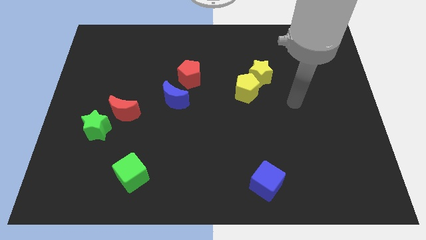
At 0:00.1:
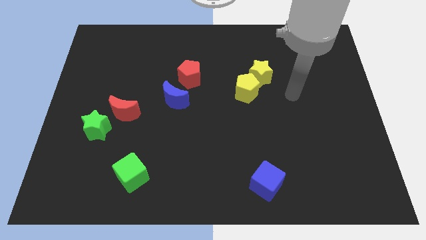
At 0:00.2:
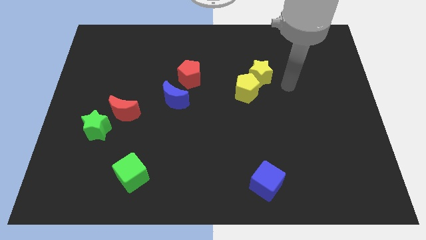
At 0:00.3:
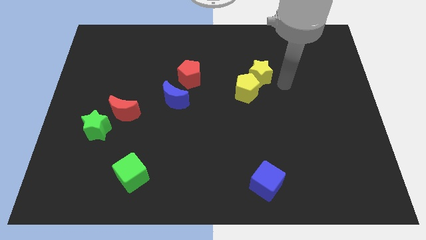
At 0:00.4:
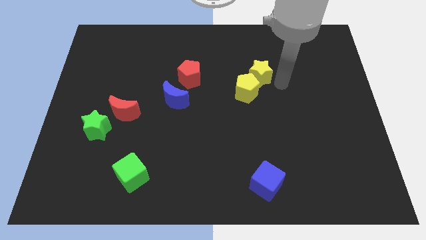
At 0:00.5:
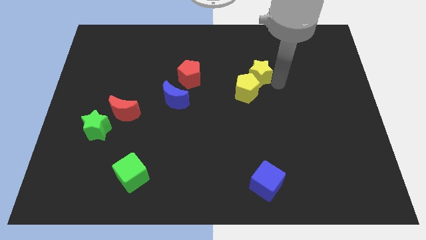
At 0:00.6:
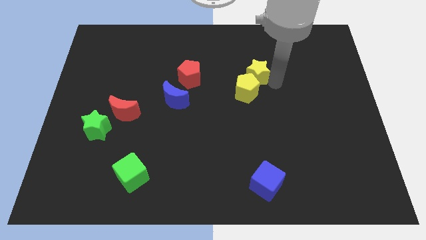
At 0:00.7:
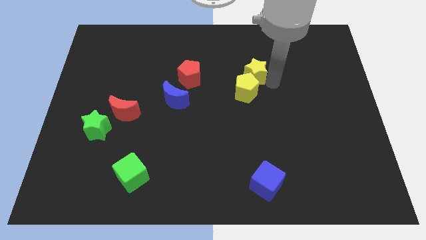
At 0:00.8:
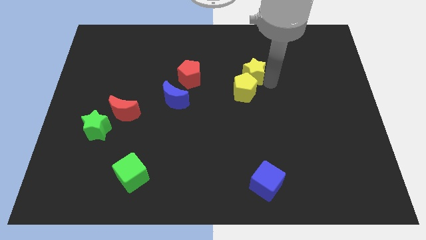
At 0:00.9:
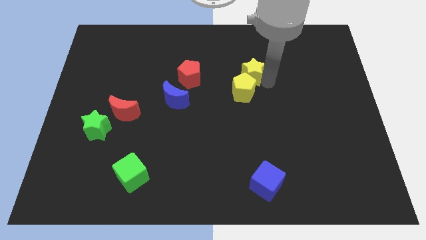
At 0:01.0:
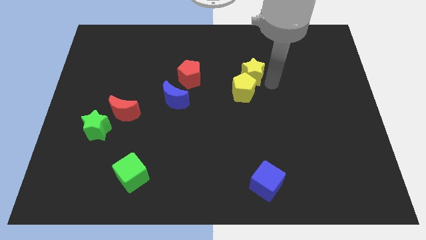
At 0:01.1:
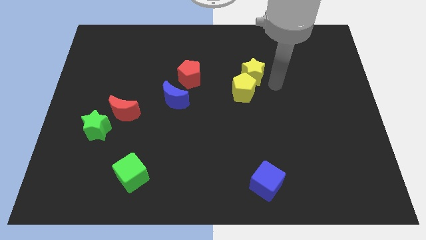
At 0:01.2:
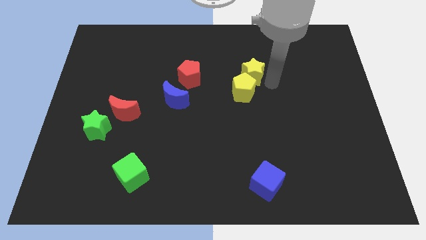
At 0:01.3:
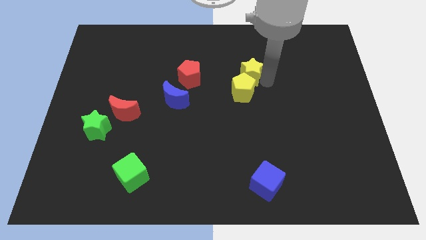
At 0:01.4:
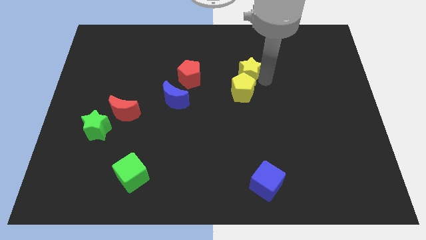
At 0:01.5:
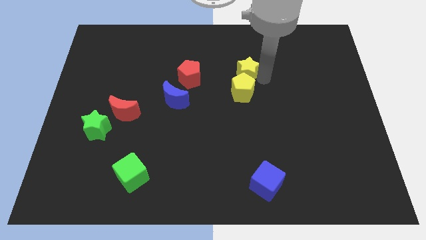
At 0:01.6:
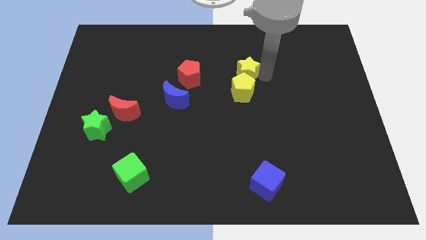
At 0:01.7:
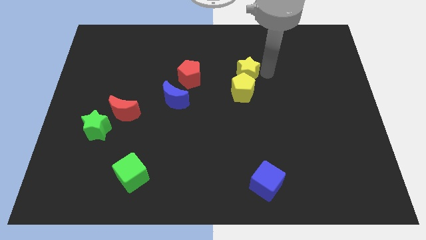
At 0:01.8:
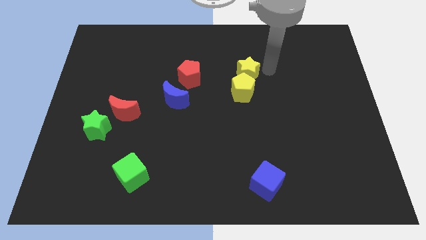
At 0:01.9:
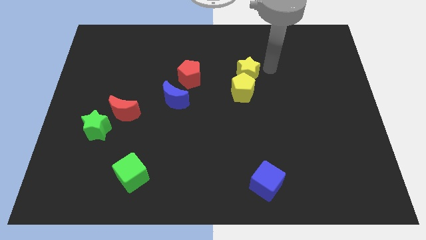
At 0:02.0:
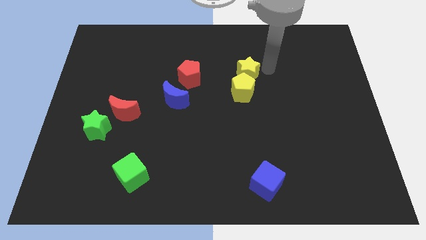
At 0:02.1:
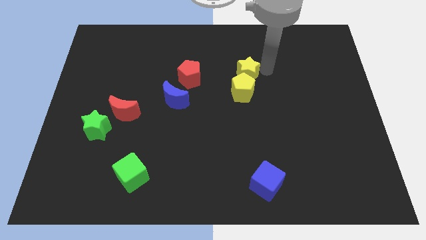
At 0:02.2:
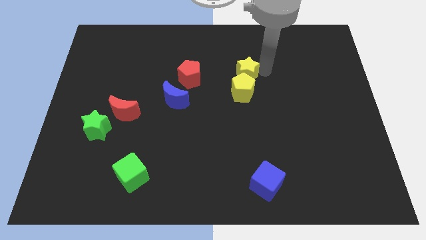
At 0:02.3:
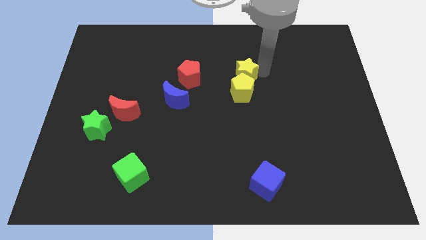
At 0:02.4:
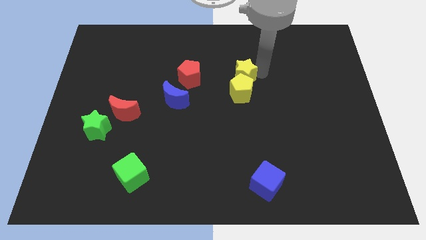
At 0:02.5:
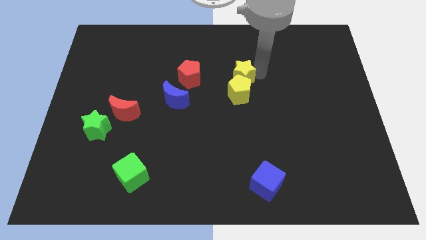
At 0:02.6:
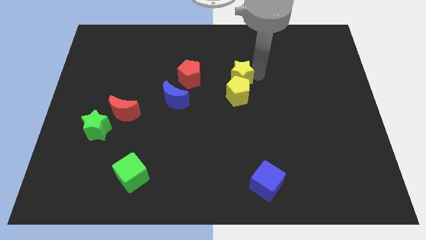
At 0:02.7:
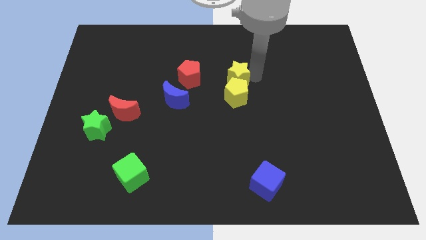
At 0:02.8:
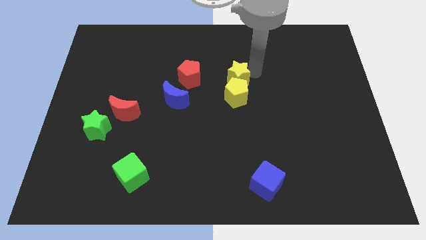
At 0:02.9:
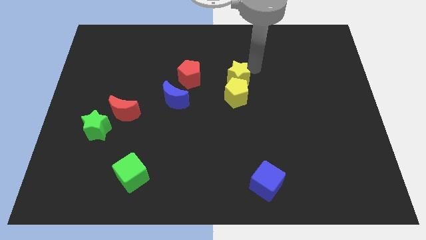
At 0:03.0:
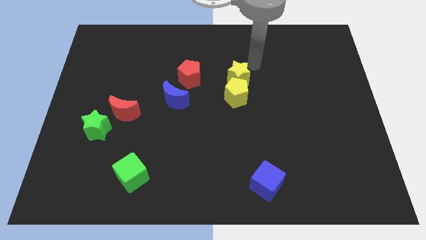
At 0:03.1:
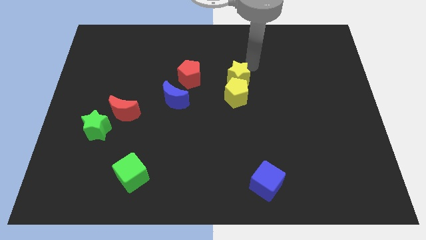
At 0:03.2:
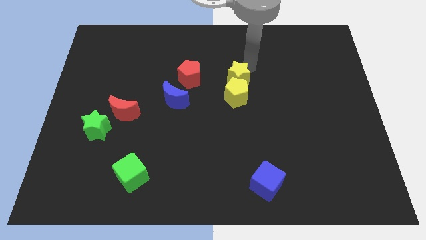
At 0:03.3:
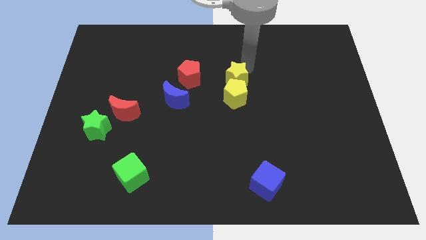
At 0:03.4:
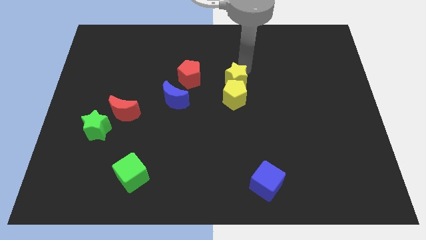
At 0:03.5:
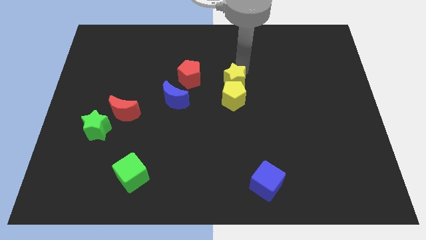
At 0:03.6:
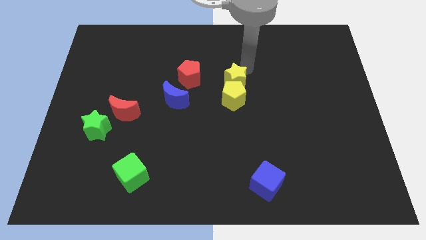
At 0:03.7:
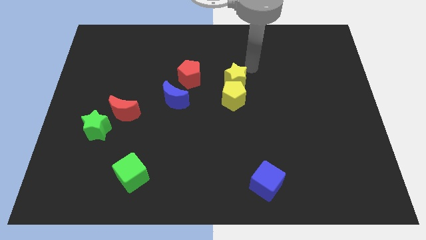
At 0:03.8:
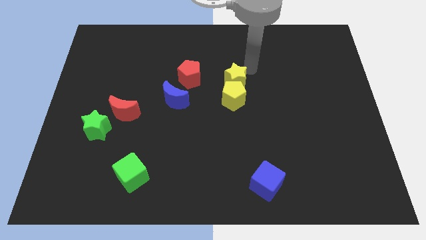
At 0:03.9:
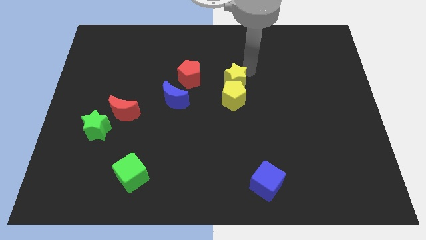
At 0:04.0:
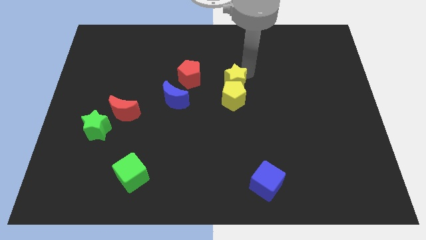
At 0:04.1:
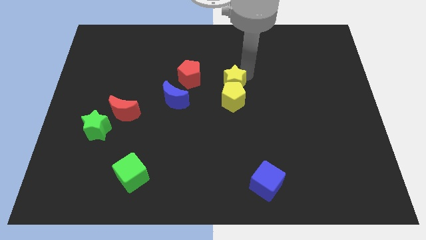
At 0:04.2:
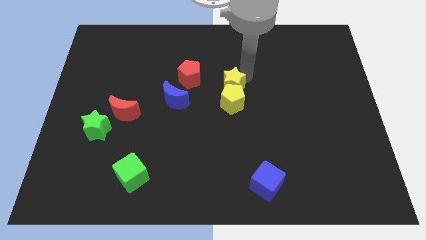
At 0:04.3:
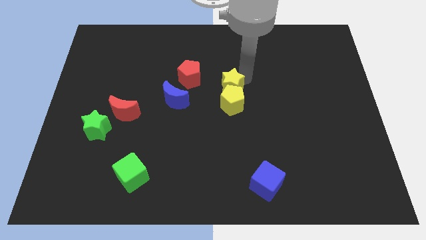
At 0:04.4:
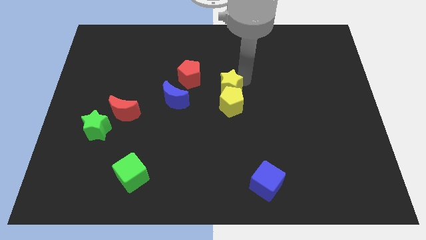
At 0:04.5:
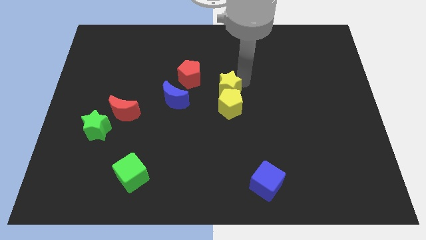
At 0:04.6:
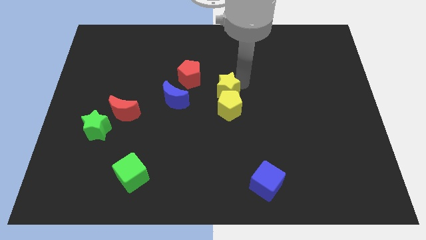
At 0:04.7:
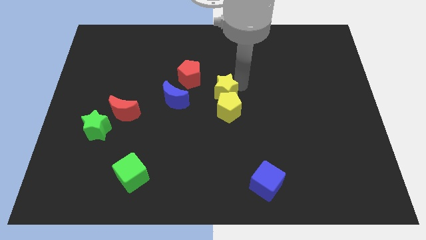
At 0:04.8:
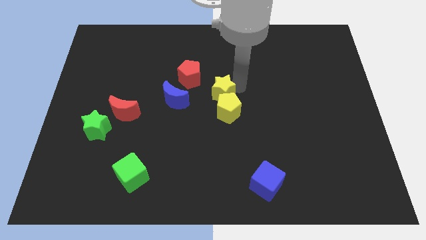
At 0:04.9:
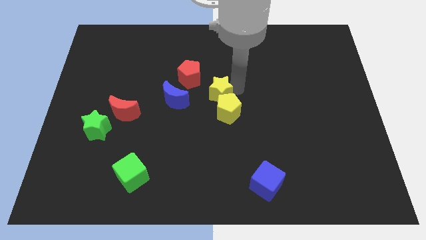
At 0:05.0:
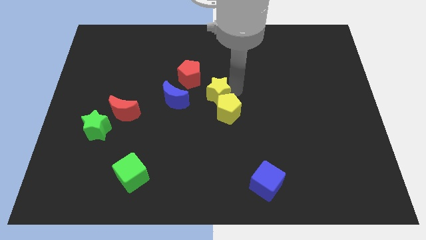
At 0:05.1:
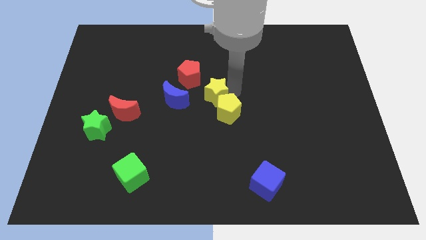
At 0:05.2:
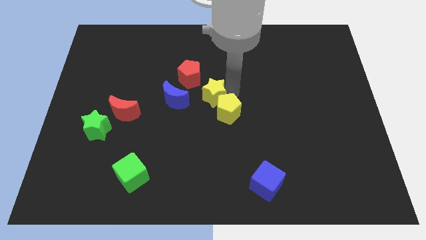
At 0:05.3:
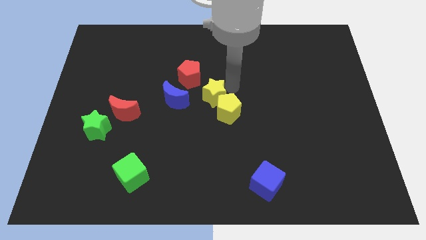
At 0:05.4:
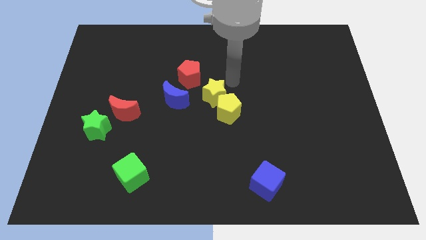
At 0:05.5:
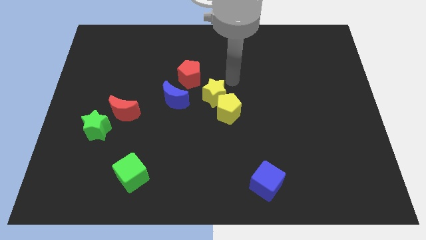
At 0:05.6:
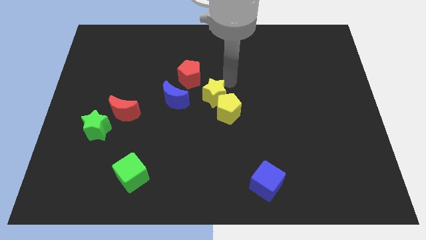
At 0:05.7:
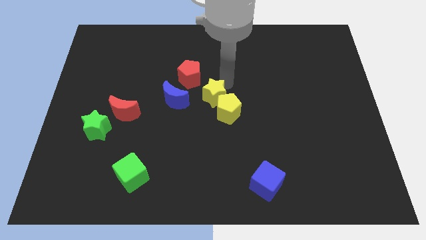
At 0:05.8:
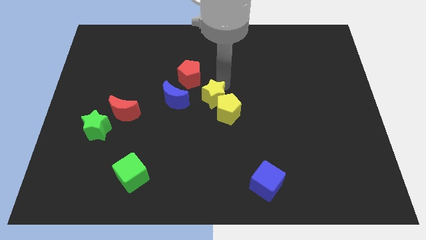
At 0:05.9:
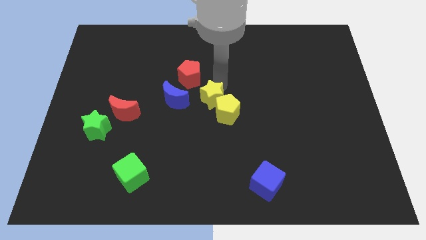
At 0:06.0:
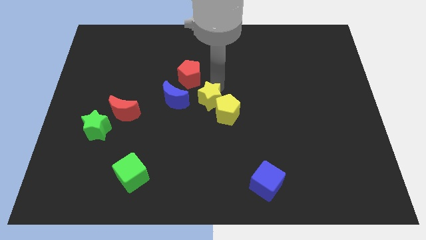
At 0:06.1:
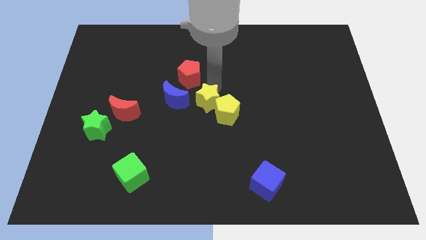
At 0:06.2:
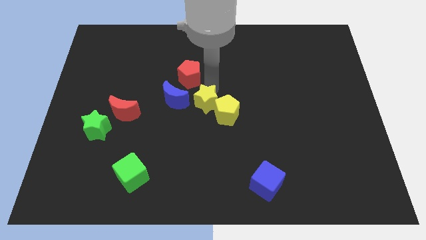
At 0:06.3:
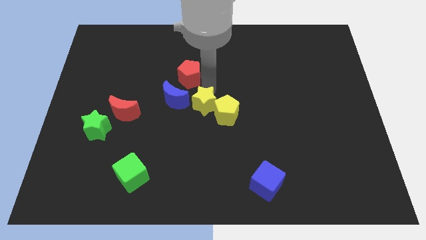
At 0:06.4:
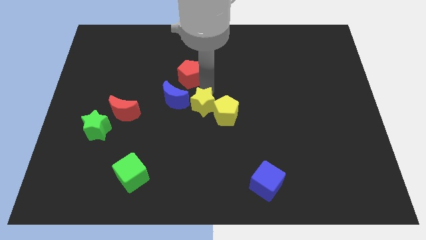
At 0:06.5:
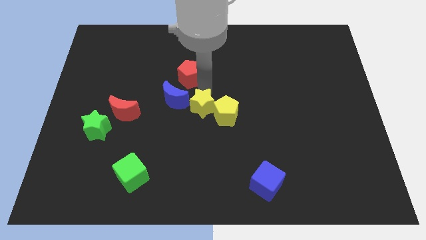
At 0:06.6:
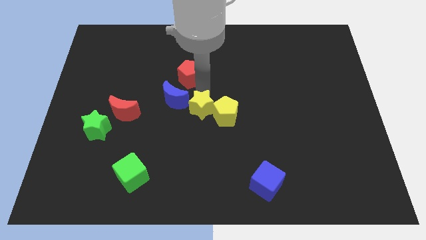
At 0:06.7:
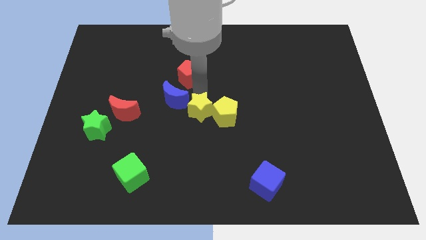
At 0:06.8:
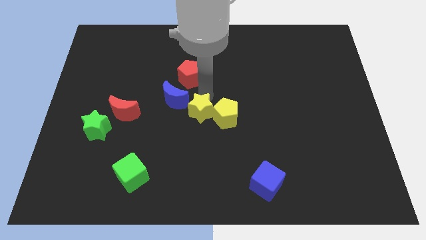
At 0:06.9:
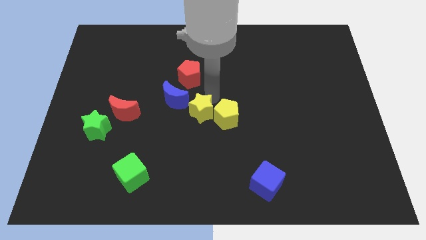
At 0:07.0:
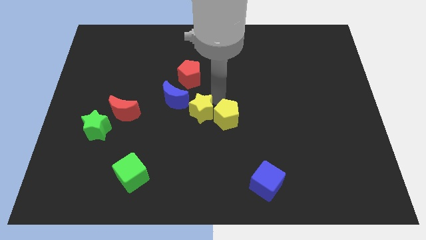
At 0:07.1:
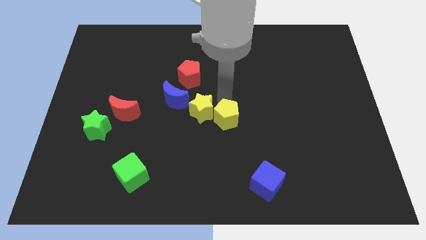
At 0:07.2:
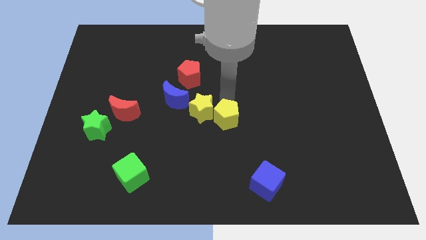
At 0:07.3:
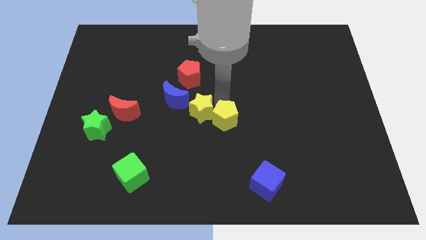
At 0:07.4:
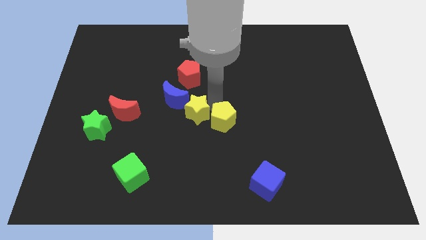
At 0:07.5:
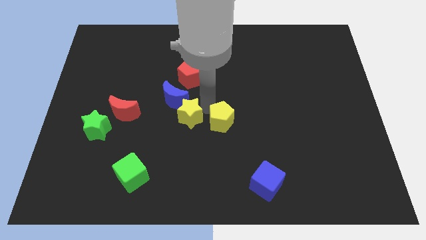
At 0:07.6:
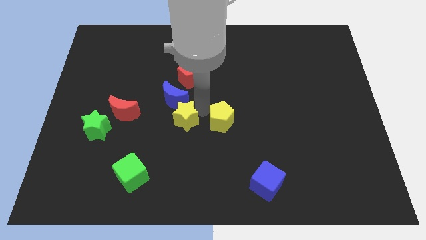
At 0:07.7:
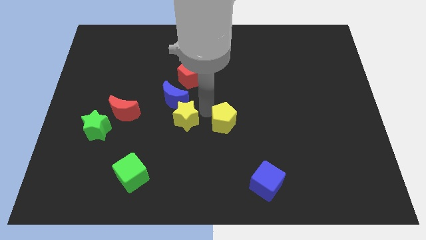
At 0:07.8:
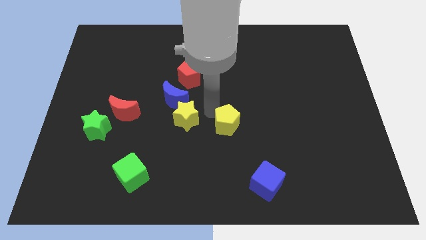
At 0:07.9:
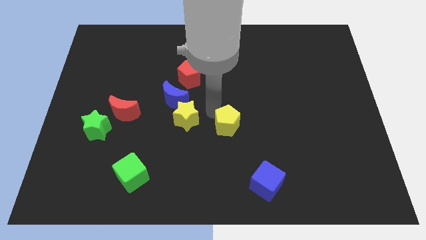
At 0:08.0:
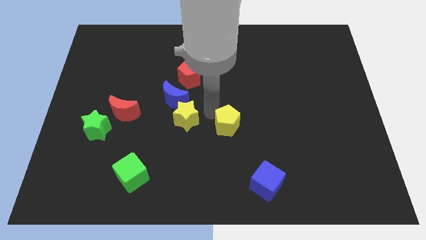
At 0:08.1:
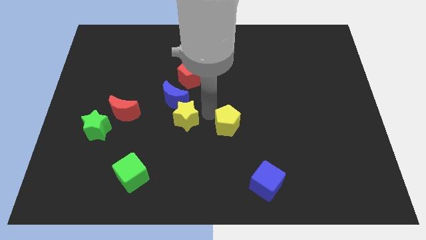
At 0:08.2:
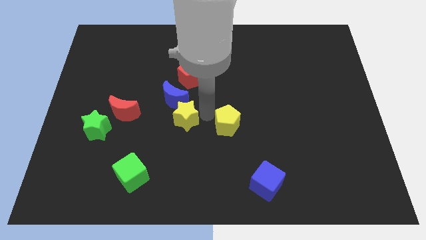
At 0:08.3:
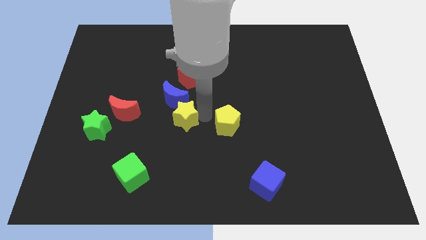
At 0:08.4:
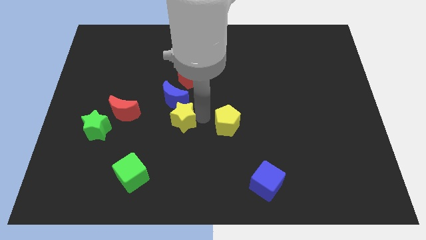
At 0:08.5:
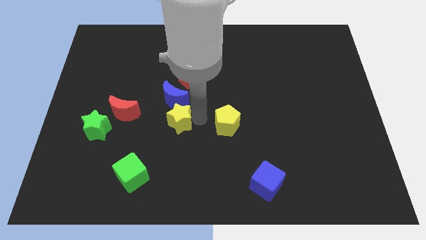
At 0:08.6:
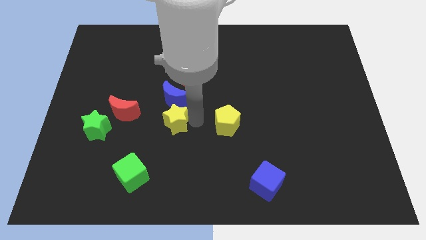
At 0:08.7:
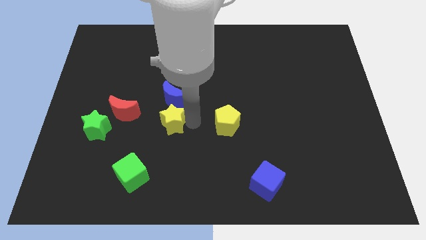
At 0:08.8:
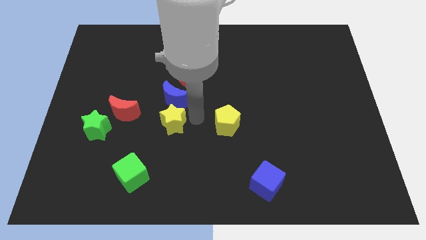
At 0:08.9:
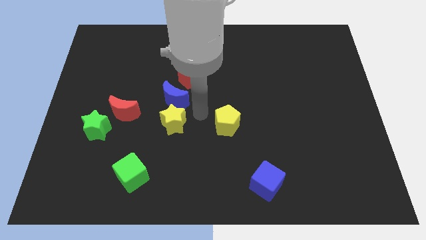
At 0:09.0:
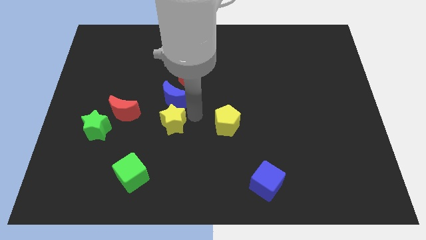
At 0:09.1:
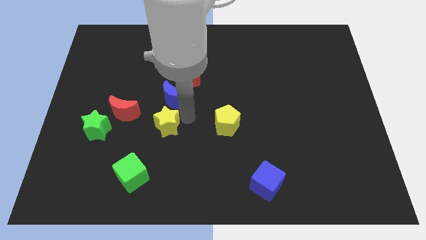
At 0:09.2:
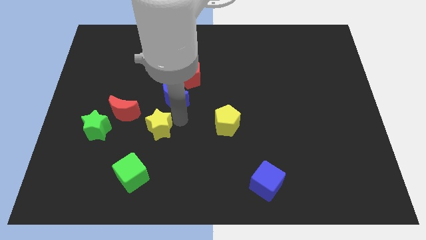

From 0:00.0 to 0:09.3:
slide the yellow star to the bottom right of the red moon
